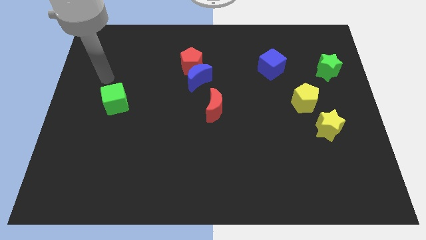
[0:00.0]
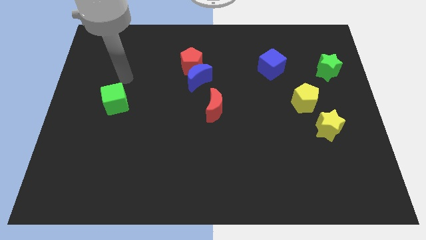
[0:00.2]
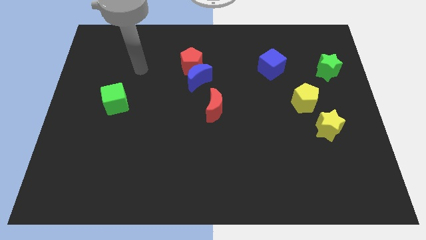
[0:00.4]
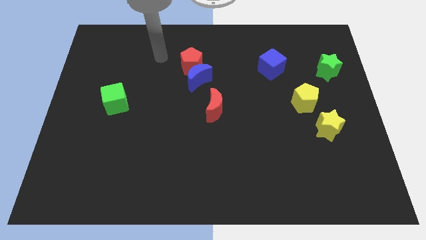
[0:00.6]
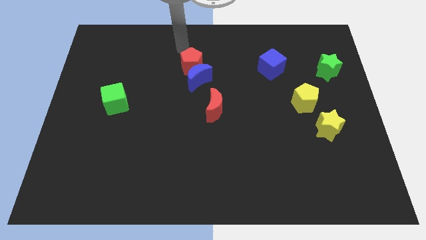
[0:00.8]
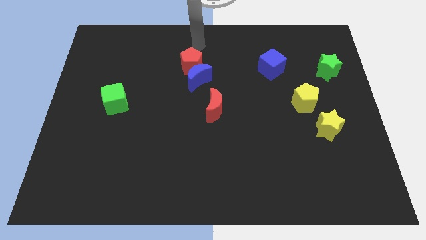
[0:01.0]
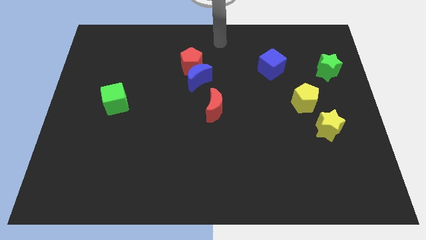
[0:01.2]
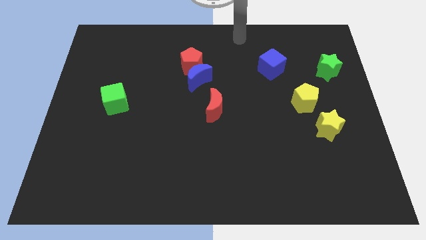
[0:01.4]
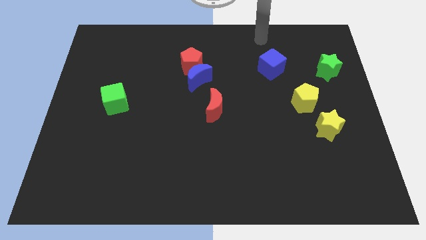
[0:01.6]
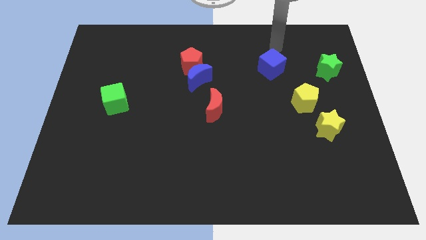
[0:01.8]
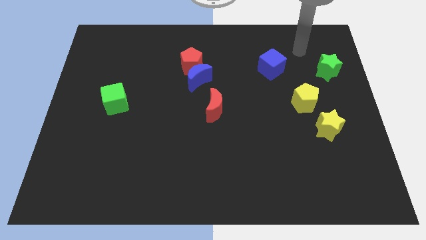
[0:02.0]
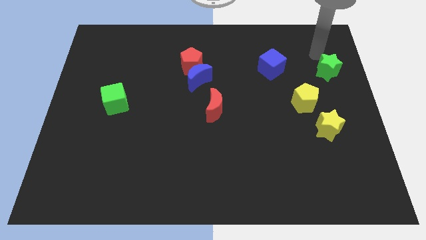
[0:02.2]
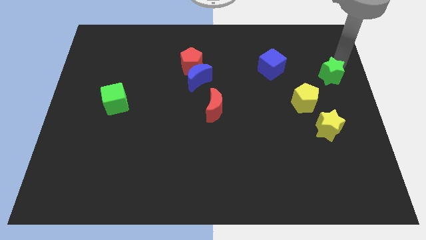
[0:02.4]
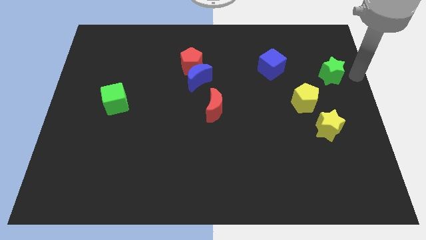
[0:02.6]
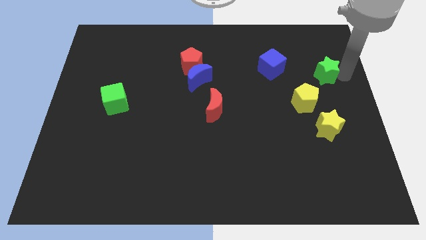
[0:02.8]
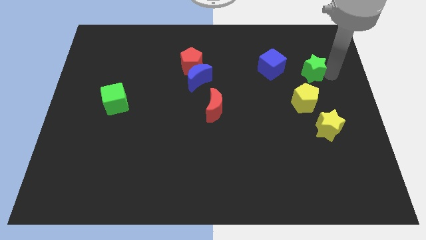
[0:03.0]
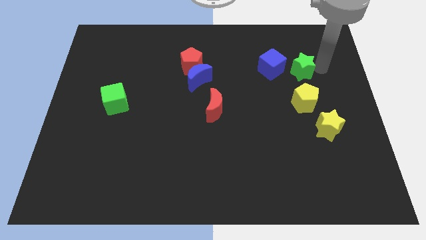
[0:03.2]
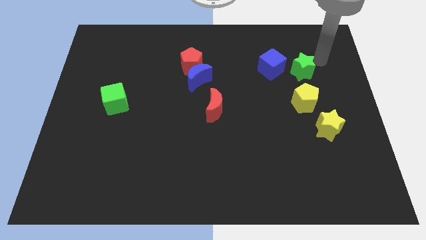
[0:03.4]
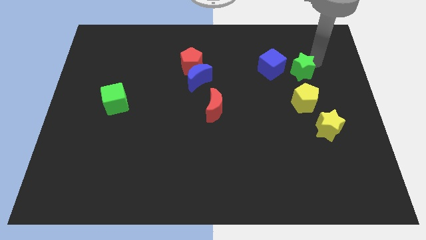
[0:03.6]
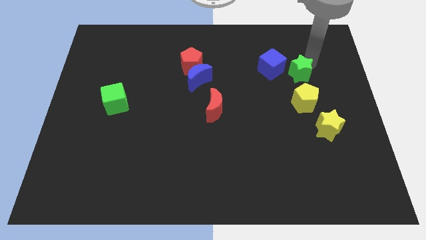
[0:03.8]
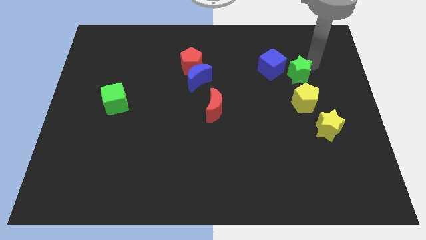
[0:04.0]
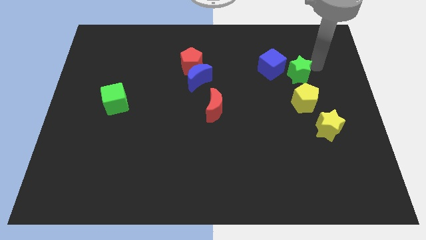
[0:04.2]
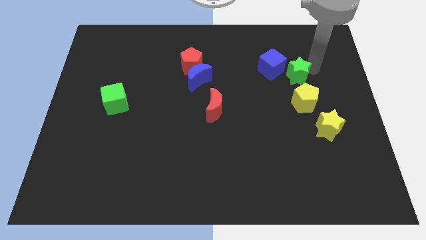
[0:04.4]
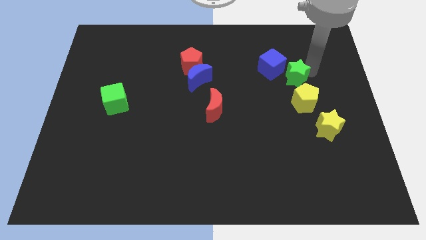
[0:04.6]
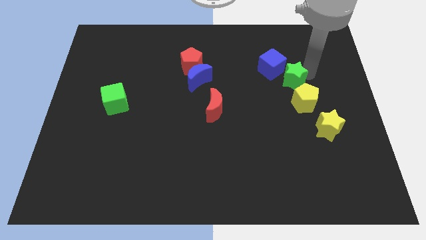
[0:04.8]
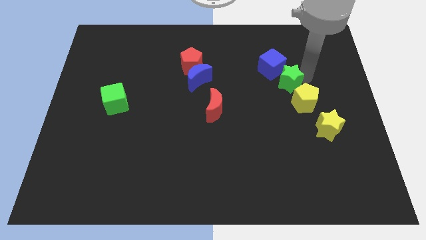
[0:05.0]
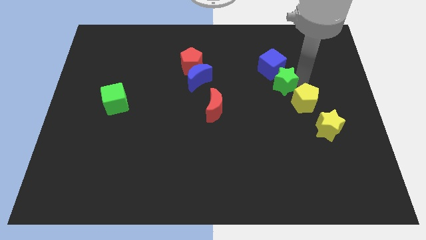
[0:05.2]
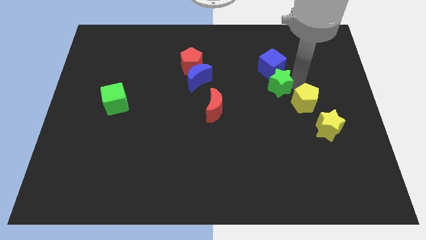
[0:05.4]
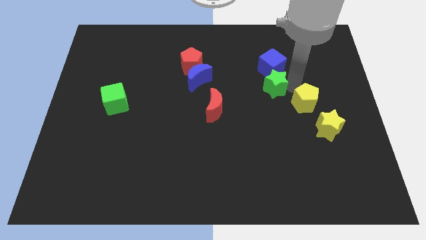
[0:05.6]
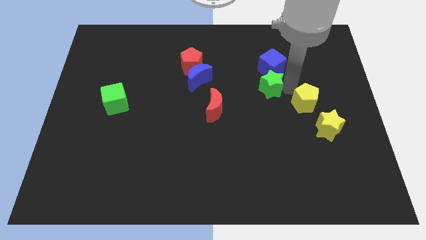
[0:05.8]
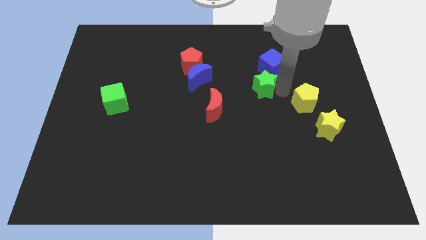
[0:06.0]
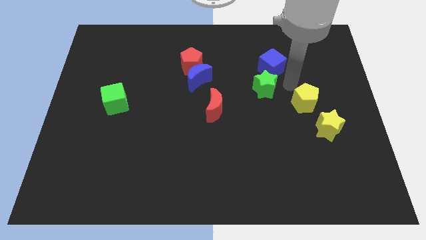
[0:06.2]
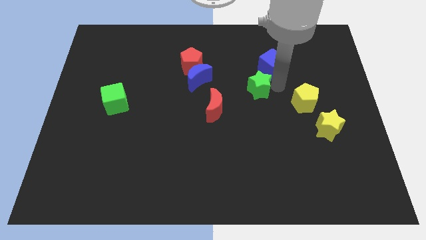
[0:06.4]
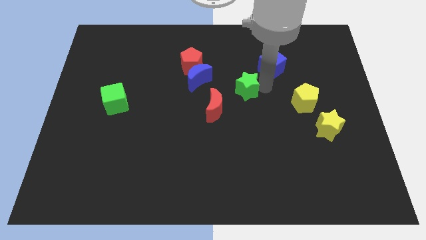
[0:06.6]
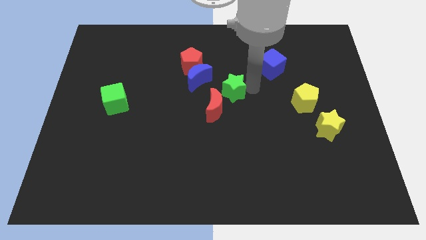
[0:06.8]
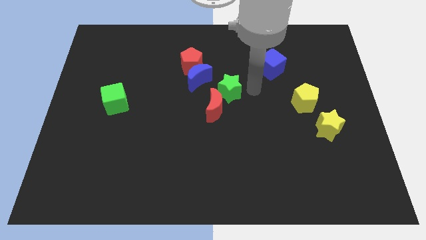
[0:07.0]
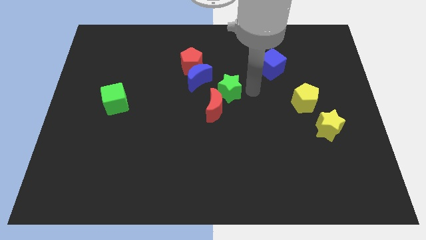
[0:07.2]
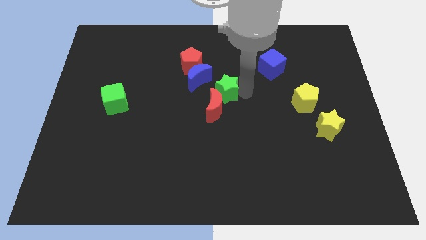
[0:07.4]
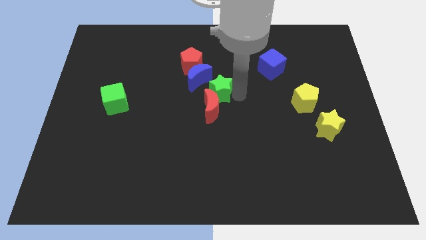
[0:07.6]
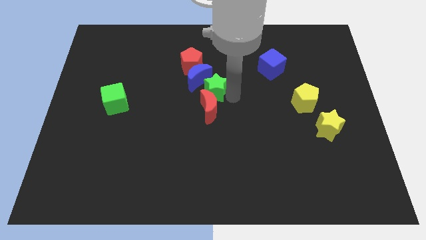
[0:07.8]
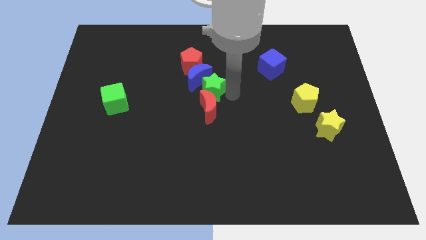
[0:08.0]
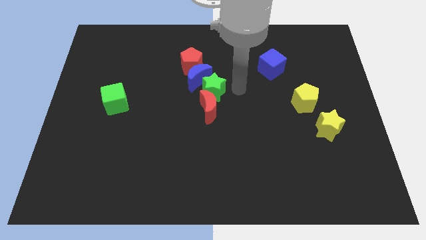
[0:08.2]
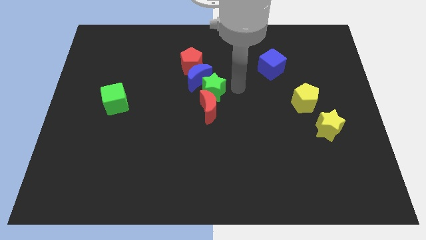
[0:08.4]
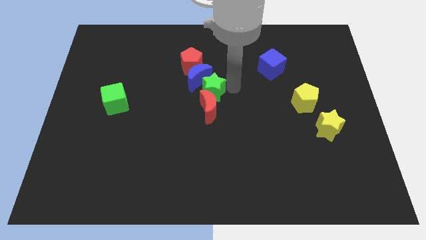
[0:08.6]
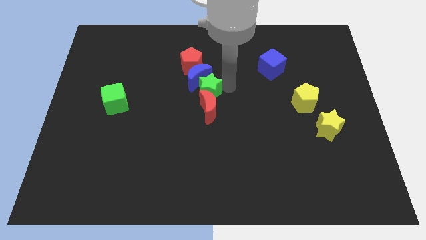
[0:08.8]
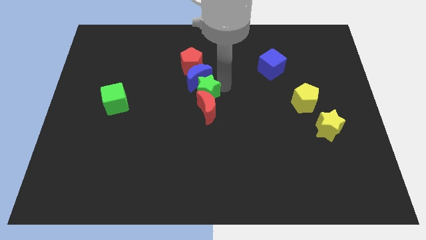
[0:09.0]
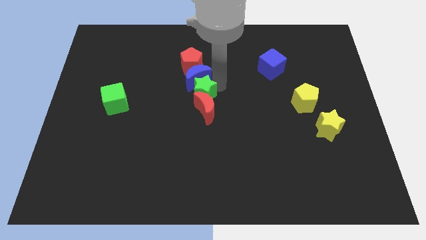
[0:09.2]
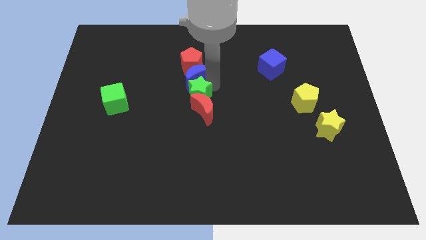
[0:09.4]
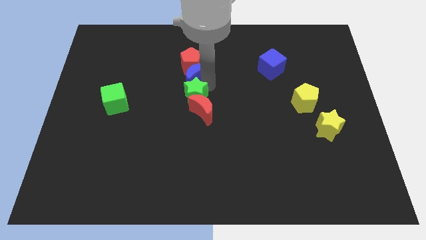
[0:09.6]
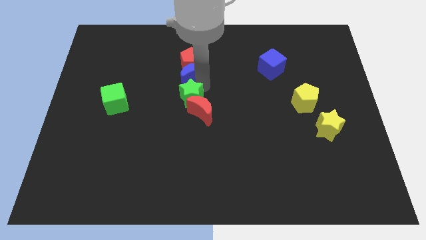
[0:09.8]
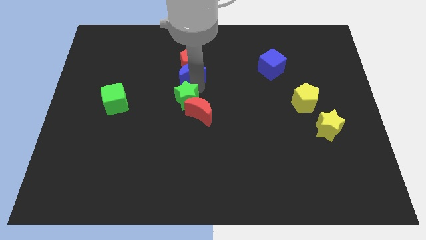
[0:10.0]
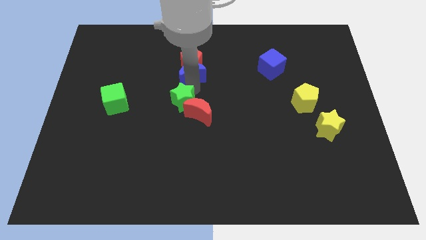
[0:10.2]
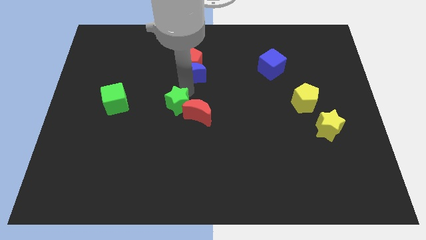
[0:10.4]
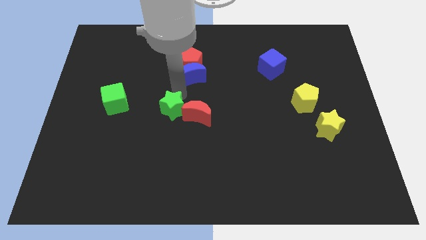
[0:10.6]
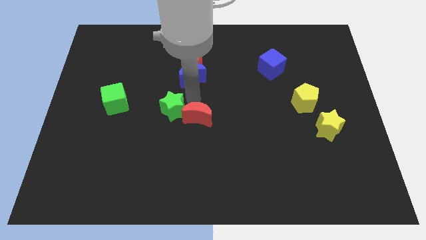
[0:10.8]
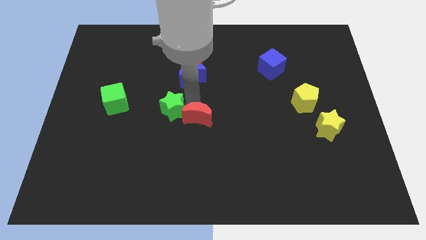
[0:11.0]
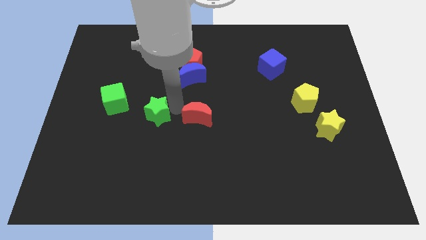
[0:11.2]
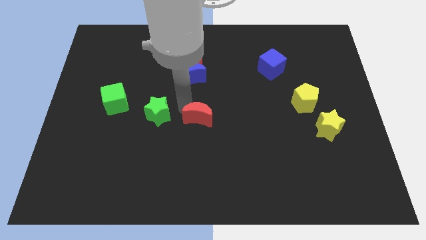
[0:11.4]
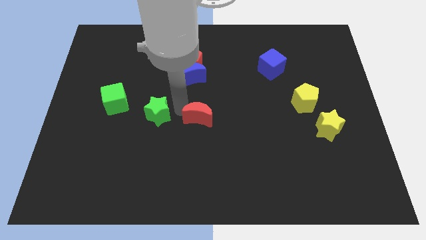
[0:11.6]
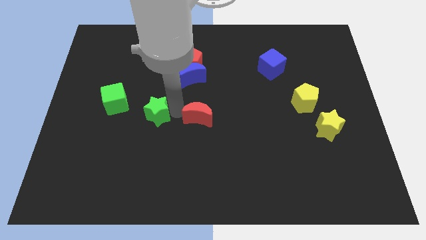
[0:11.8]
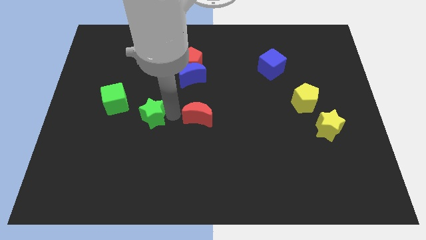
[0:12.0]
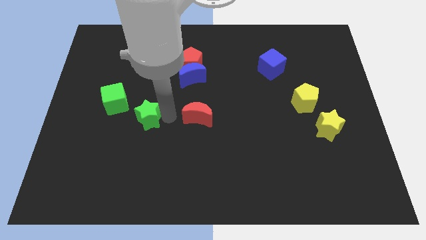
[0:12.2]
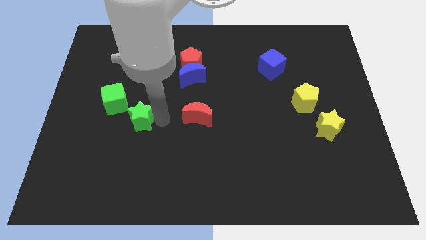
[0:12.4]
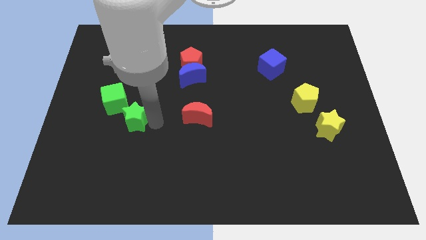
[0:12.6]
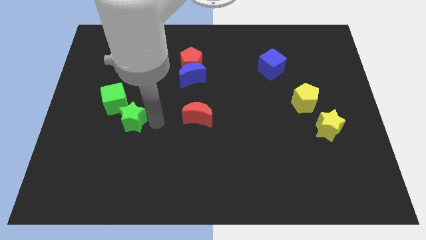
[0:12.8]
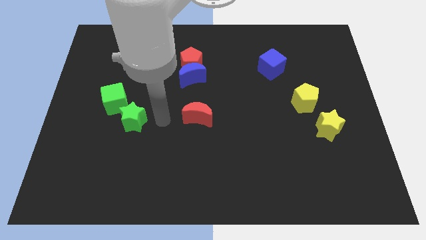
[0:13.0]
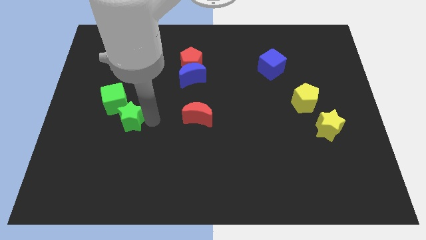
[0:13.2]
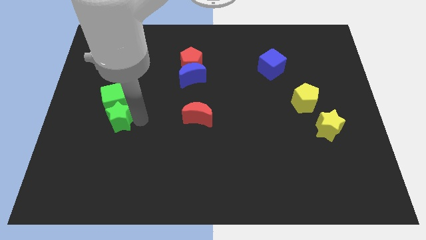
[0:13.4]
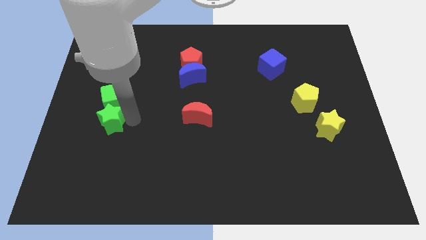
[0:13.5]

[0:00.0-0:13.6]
put the green star to the bottom left side of the green cube
